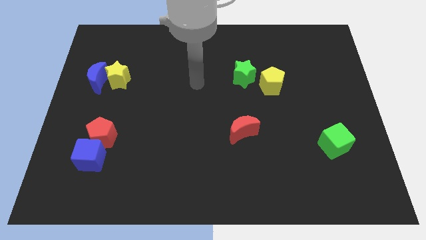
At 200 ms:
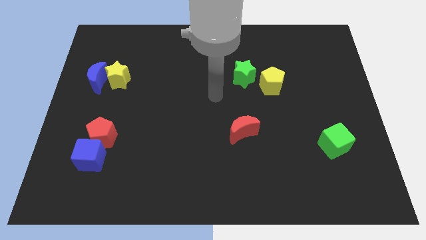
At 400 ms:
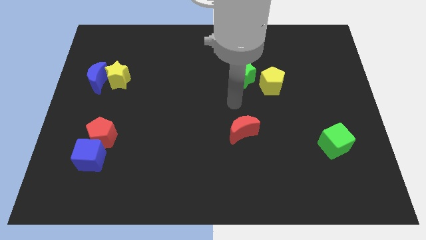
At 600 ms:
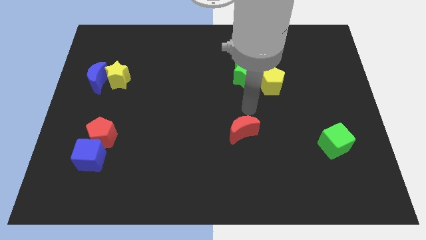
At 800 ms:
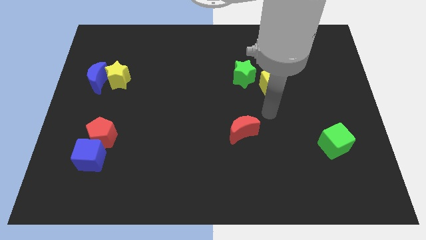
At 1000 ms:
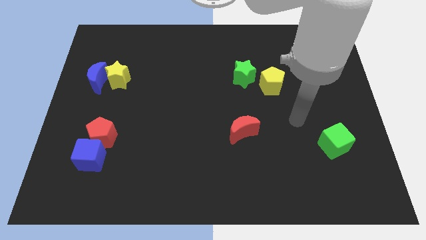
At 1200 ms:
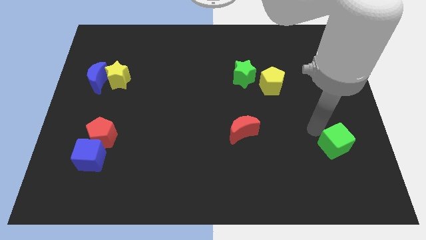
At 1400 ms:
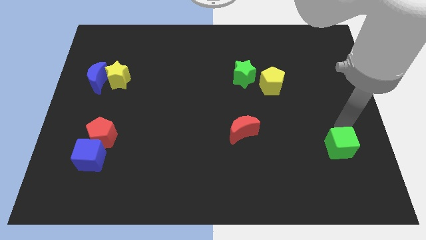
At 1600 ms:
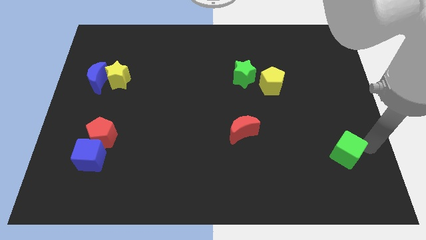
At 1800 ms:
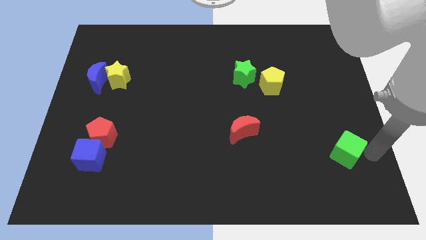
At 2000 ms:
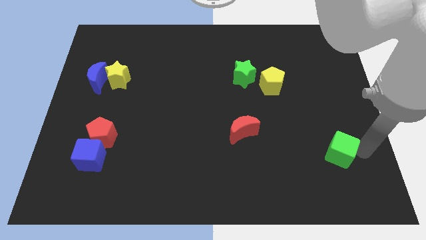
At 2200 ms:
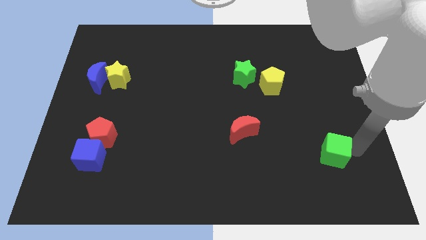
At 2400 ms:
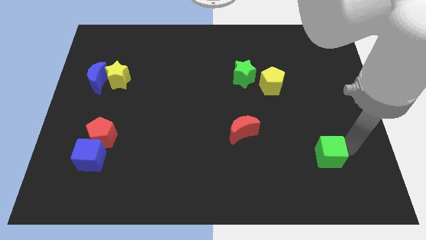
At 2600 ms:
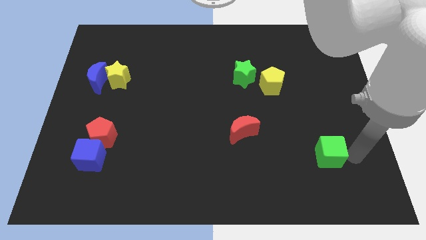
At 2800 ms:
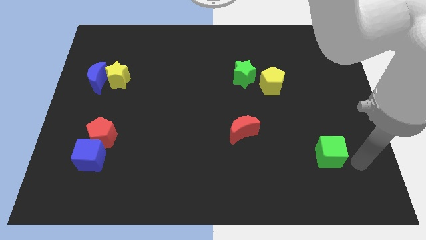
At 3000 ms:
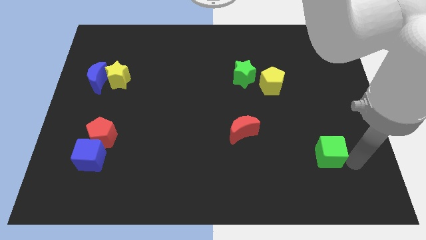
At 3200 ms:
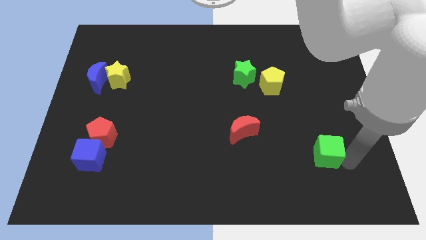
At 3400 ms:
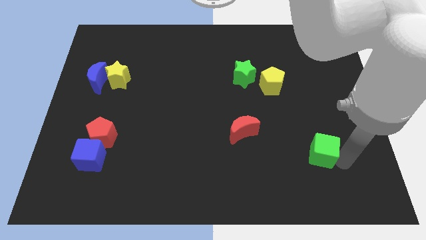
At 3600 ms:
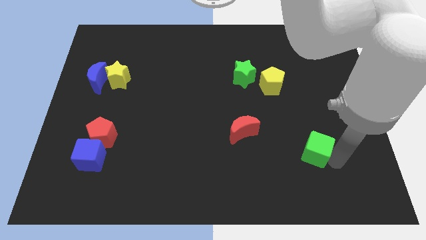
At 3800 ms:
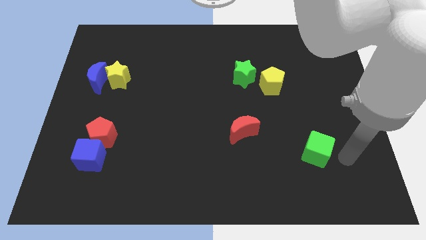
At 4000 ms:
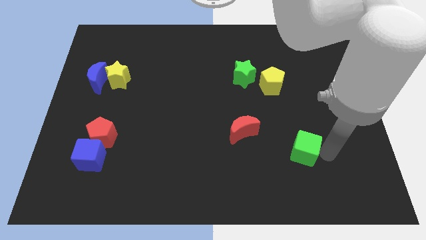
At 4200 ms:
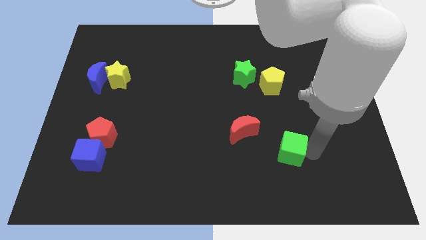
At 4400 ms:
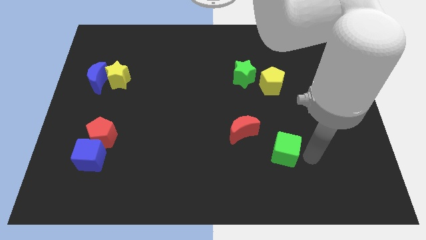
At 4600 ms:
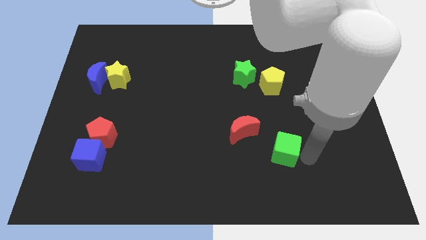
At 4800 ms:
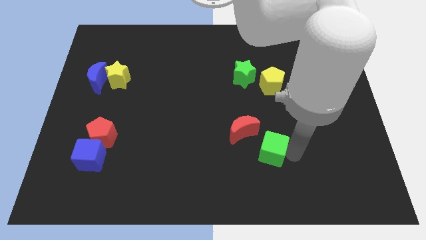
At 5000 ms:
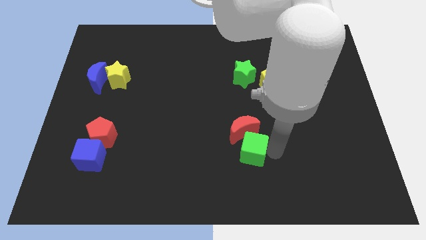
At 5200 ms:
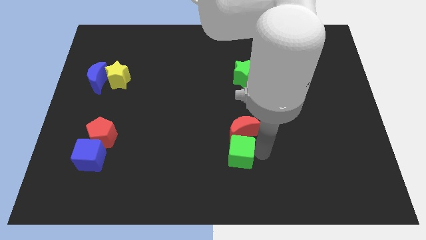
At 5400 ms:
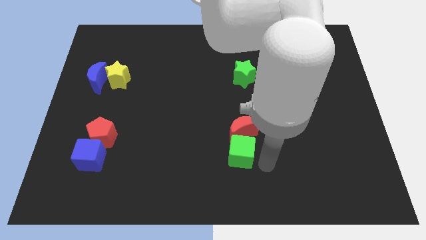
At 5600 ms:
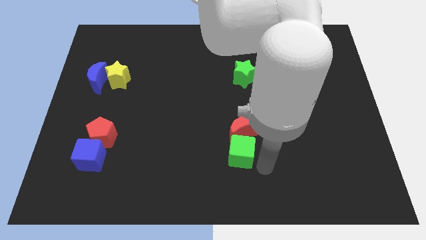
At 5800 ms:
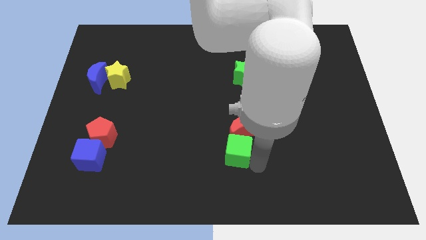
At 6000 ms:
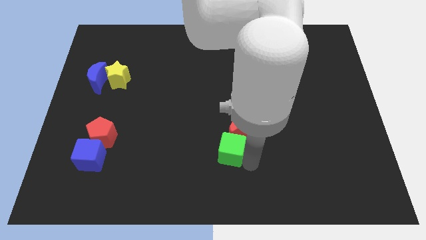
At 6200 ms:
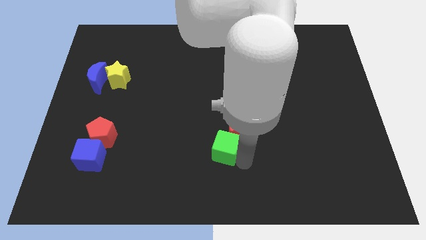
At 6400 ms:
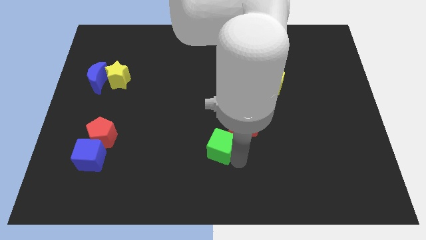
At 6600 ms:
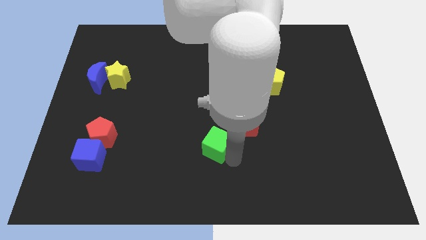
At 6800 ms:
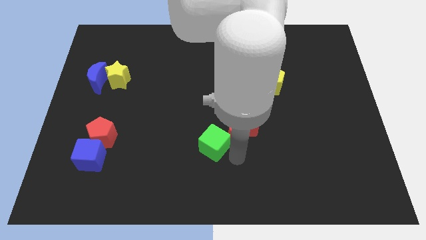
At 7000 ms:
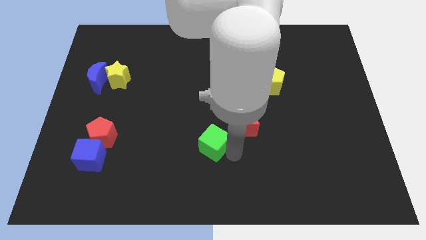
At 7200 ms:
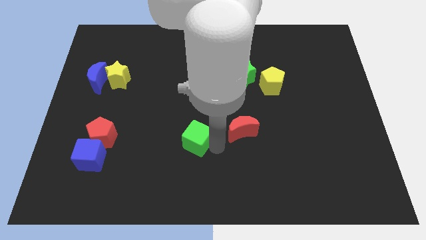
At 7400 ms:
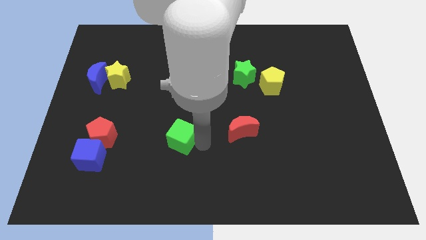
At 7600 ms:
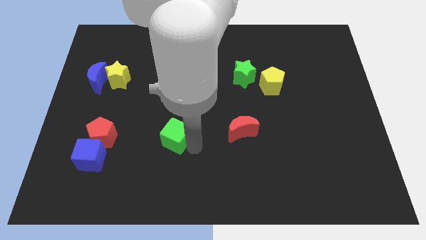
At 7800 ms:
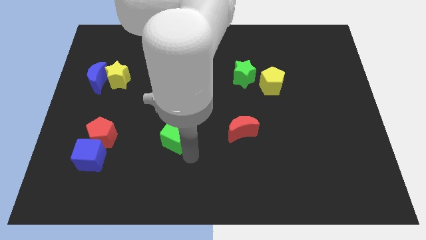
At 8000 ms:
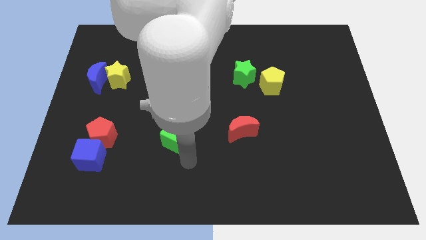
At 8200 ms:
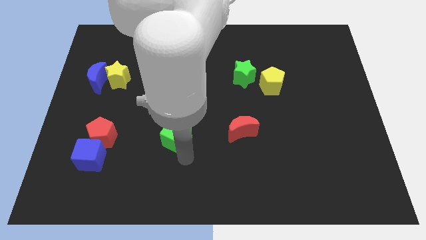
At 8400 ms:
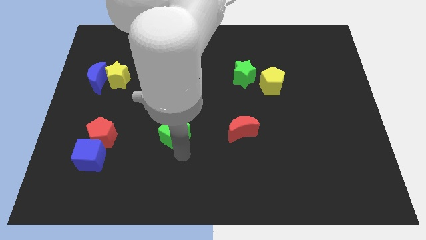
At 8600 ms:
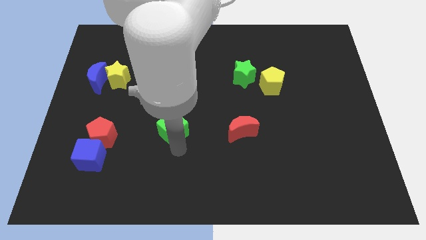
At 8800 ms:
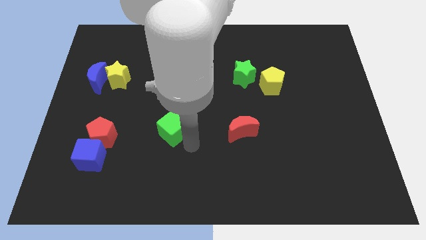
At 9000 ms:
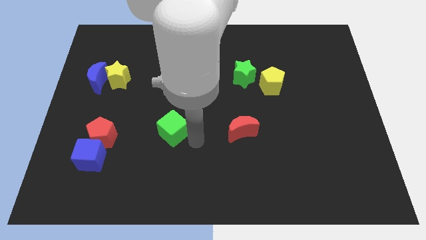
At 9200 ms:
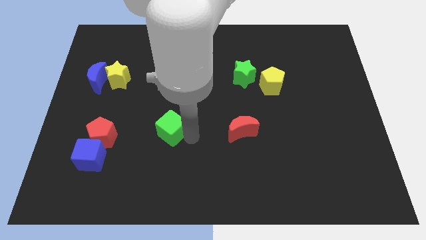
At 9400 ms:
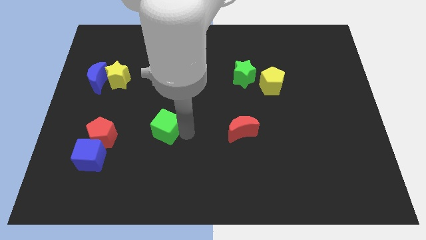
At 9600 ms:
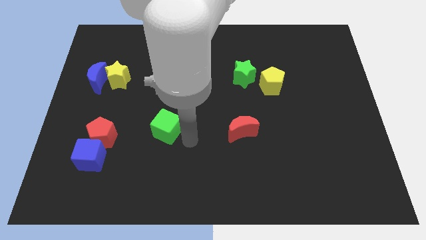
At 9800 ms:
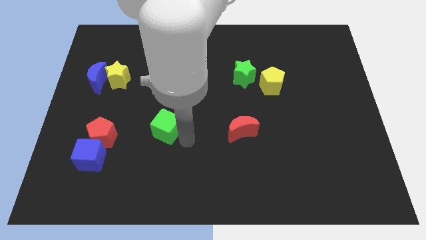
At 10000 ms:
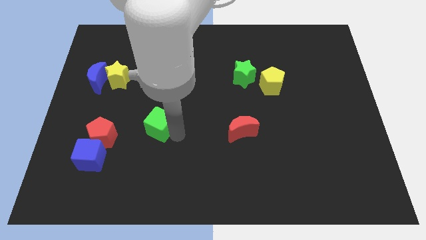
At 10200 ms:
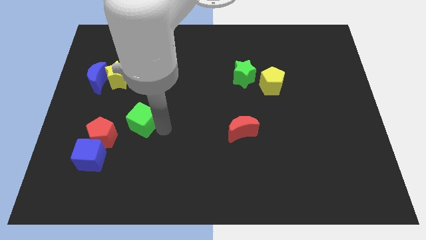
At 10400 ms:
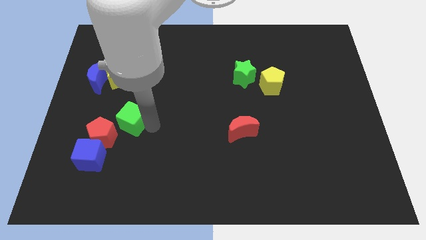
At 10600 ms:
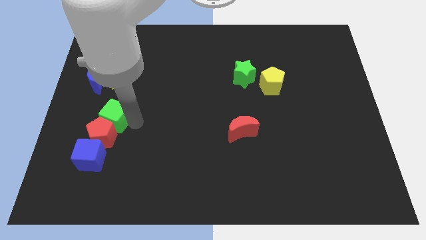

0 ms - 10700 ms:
move the green cube above the blue cube

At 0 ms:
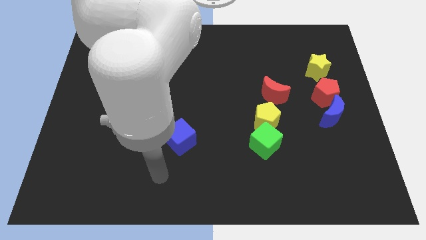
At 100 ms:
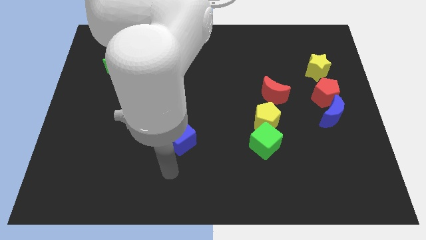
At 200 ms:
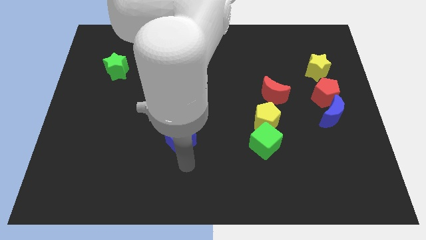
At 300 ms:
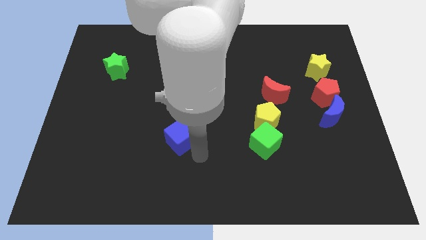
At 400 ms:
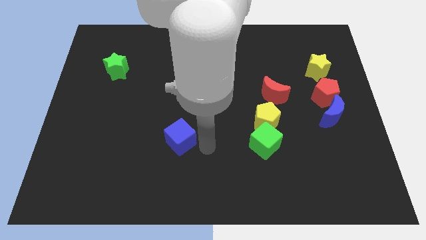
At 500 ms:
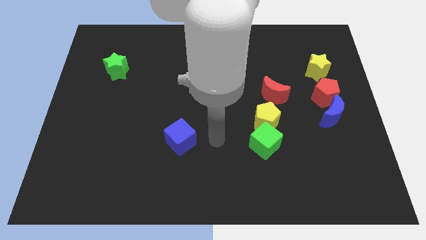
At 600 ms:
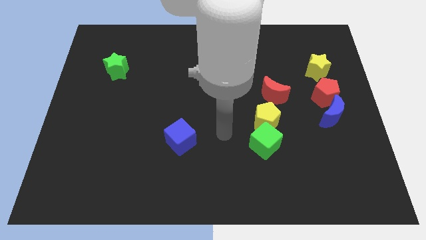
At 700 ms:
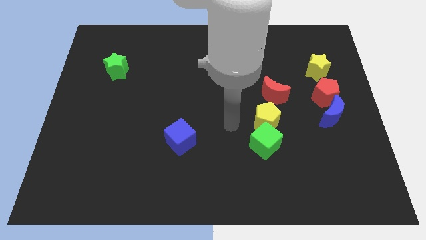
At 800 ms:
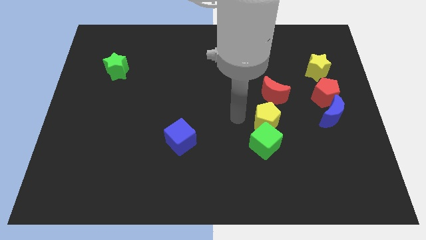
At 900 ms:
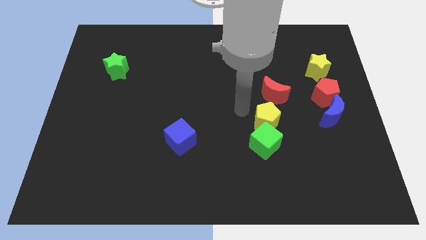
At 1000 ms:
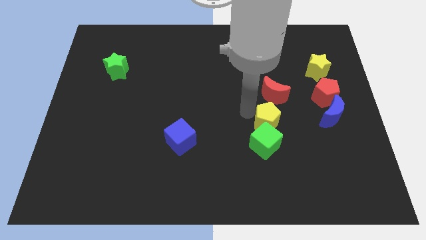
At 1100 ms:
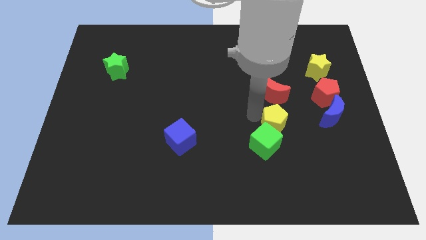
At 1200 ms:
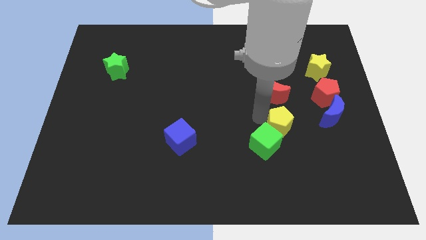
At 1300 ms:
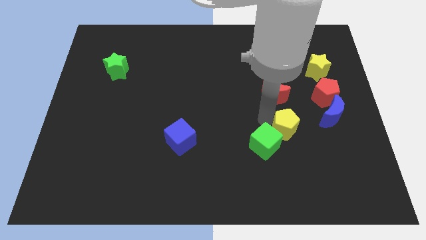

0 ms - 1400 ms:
put the yellow pentagon to the right side of the green cube
